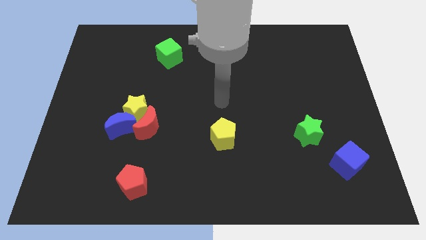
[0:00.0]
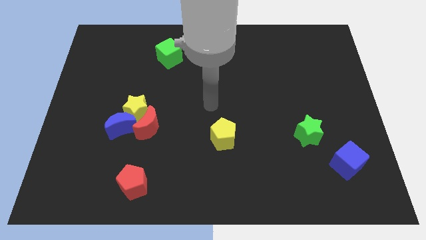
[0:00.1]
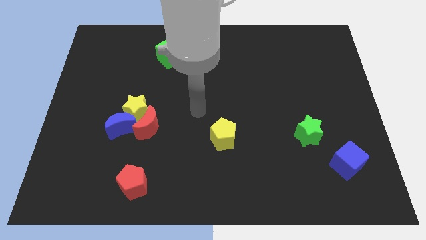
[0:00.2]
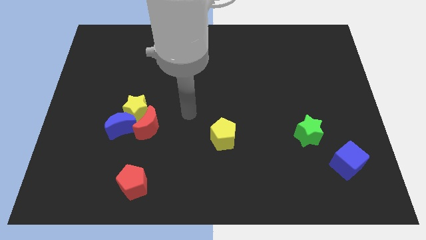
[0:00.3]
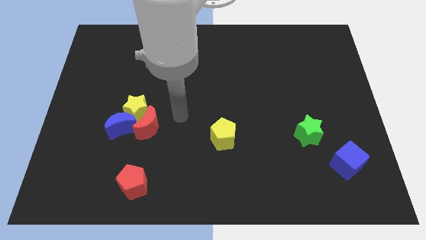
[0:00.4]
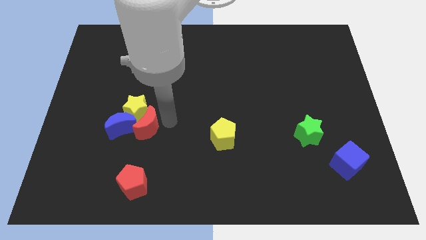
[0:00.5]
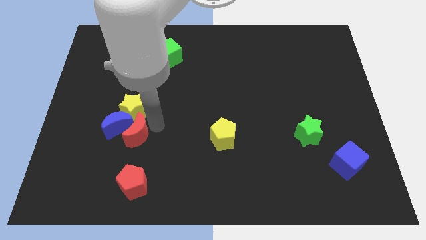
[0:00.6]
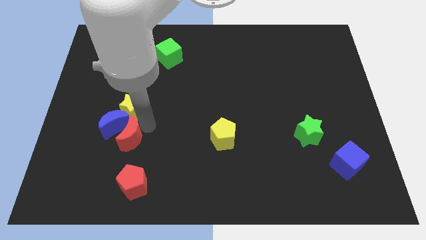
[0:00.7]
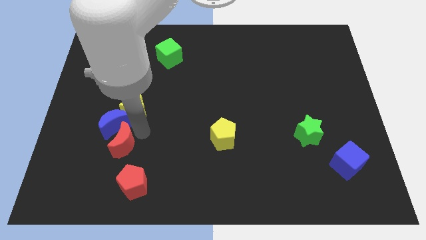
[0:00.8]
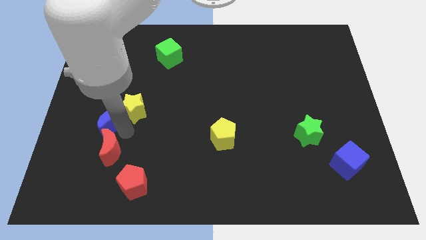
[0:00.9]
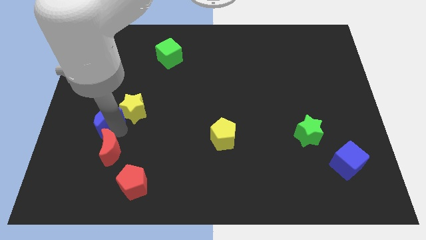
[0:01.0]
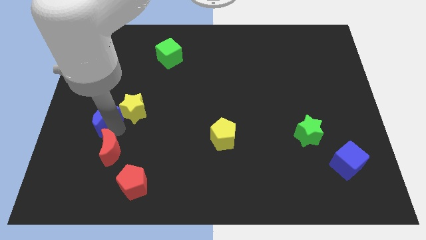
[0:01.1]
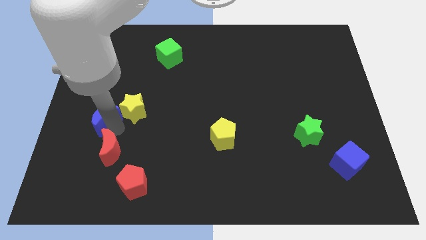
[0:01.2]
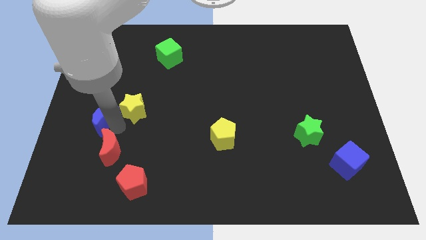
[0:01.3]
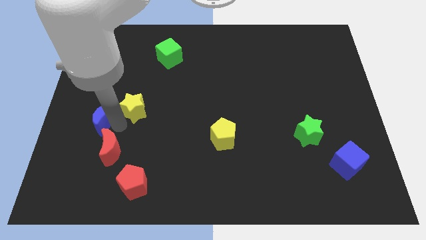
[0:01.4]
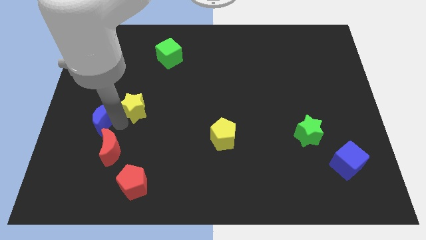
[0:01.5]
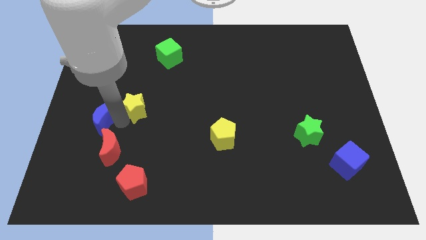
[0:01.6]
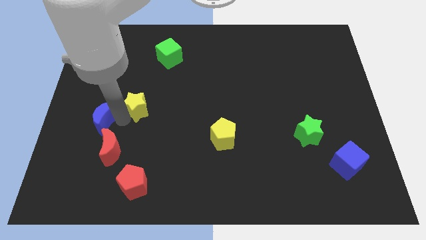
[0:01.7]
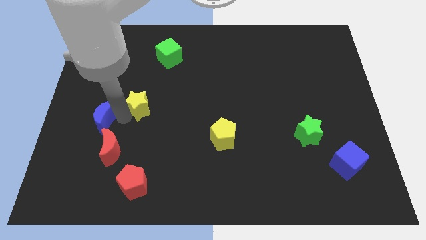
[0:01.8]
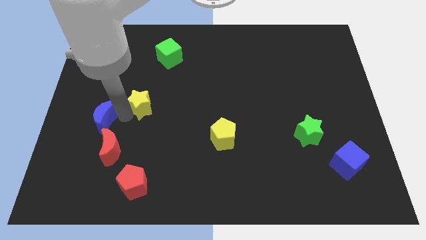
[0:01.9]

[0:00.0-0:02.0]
move the yellow star away from the red moon and blue moon

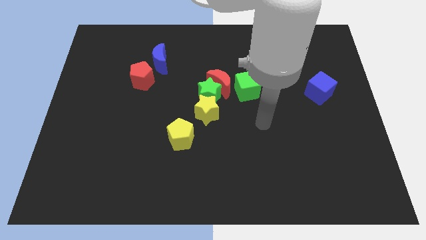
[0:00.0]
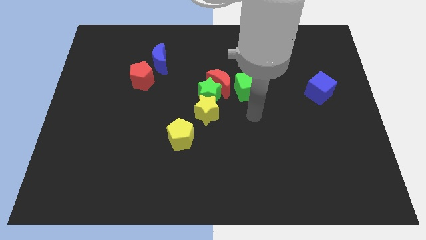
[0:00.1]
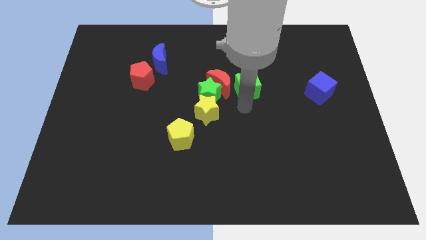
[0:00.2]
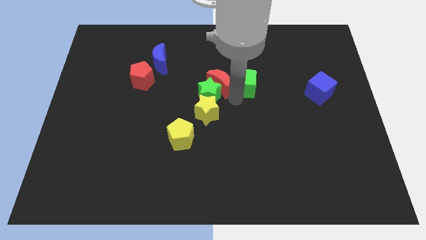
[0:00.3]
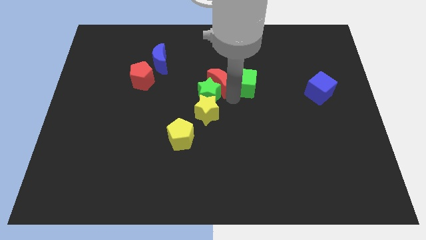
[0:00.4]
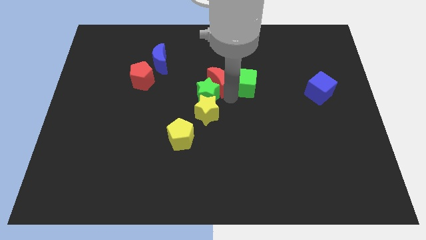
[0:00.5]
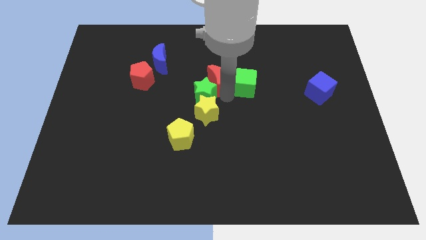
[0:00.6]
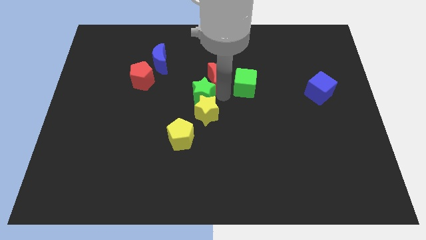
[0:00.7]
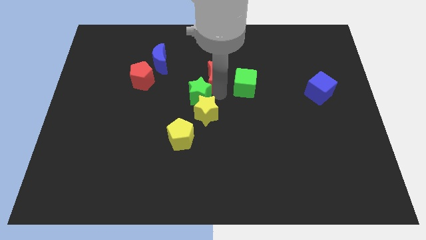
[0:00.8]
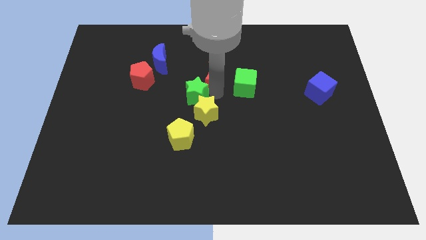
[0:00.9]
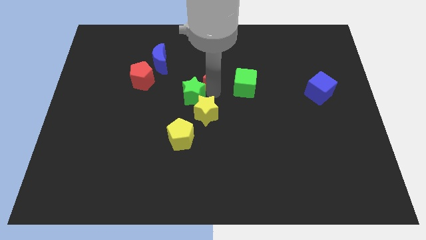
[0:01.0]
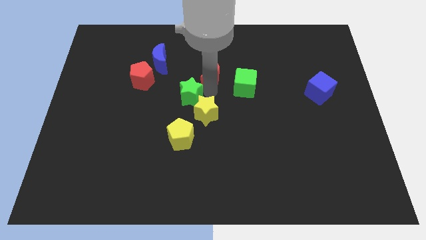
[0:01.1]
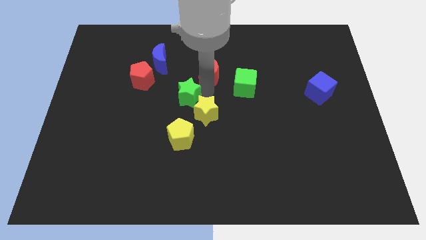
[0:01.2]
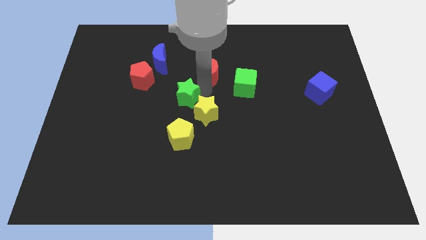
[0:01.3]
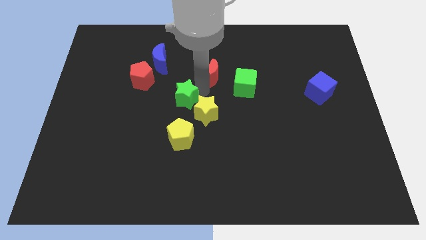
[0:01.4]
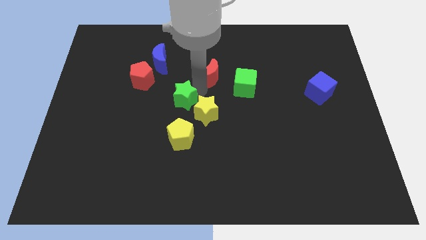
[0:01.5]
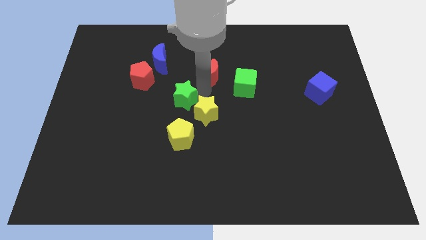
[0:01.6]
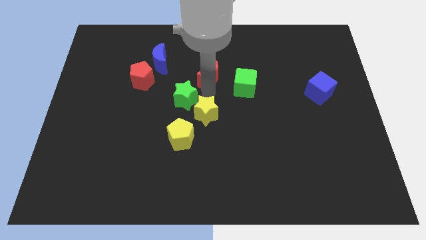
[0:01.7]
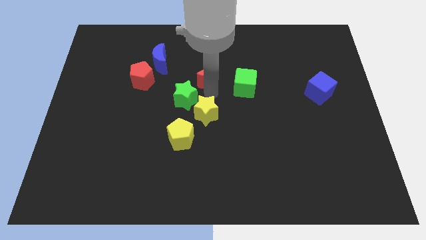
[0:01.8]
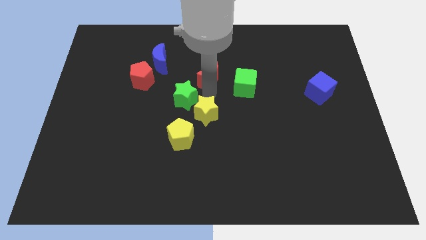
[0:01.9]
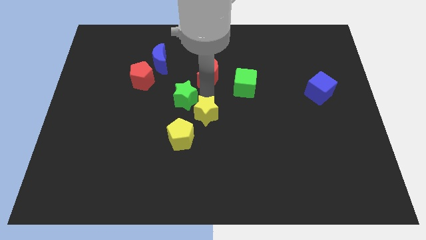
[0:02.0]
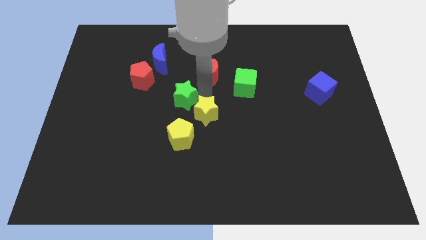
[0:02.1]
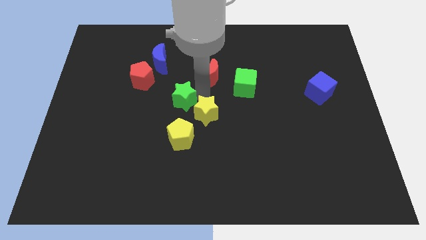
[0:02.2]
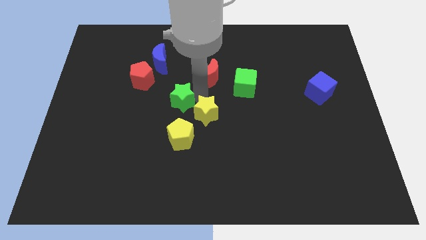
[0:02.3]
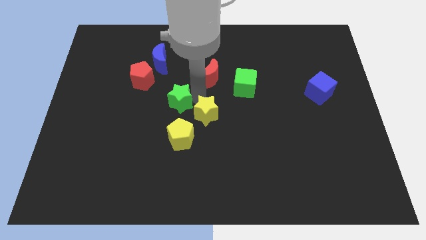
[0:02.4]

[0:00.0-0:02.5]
separate the green star from the clump

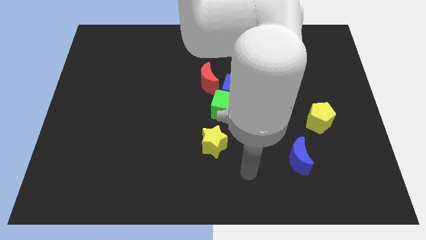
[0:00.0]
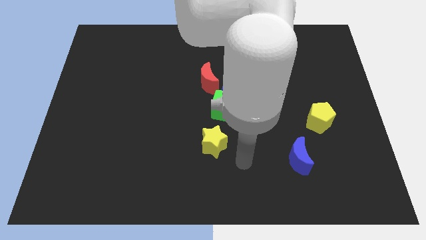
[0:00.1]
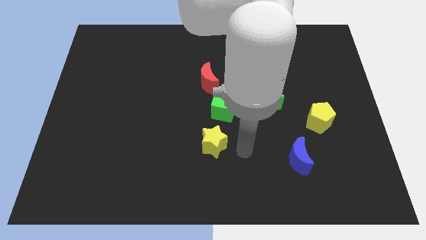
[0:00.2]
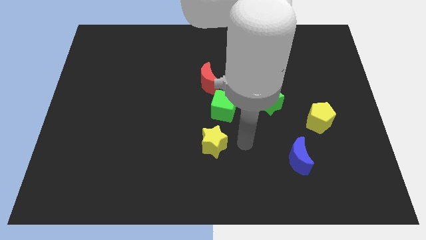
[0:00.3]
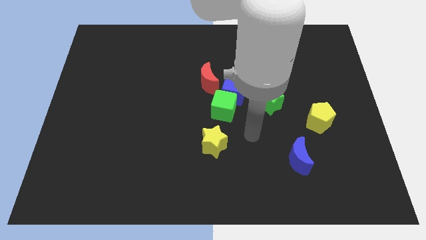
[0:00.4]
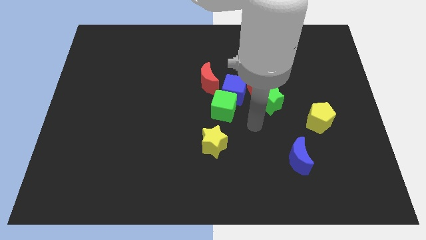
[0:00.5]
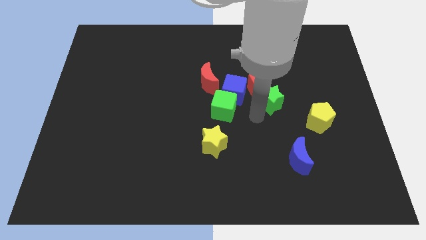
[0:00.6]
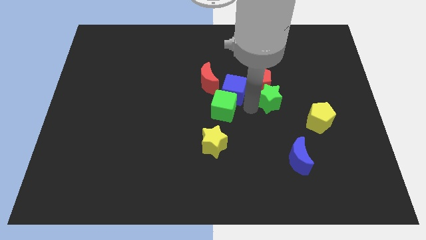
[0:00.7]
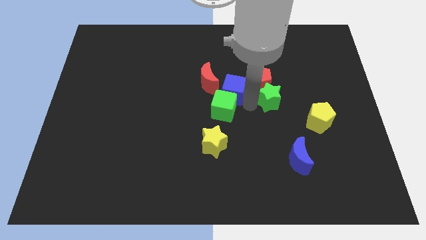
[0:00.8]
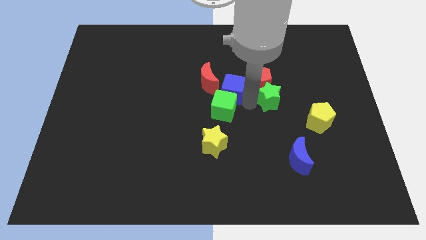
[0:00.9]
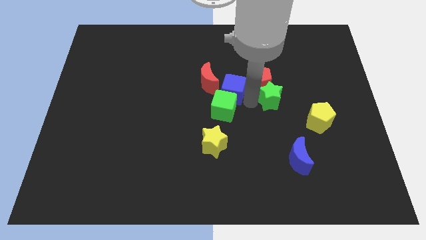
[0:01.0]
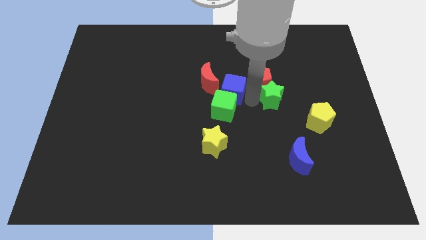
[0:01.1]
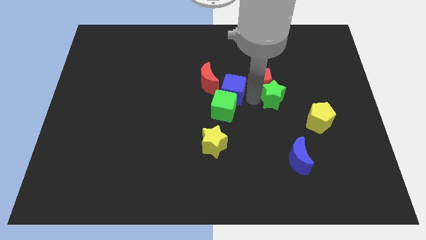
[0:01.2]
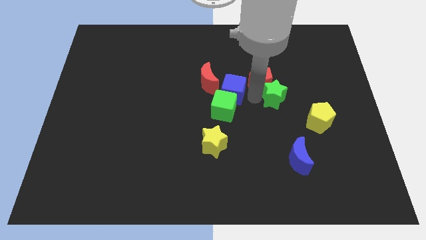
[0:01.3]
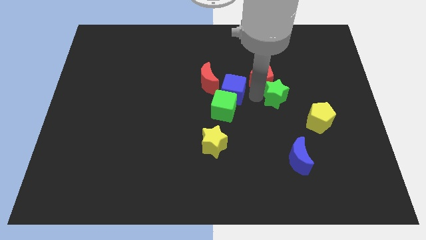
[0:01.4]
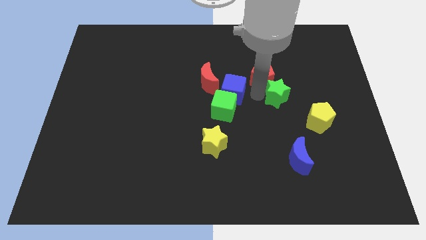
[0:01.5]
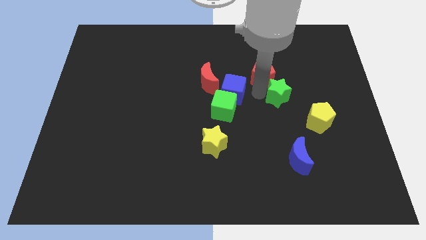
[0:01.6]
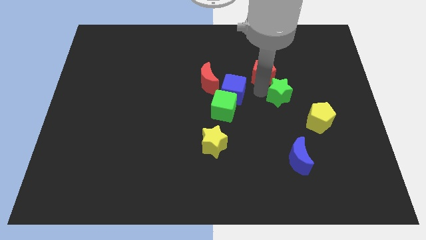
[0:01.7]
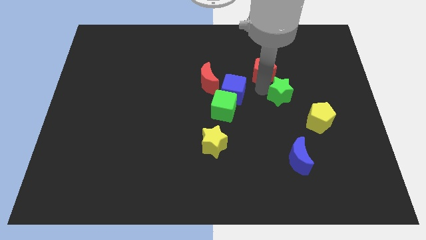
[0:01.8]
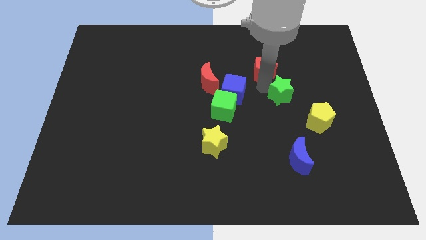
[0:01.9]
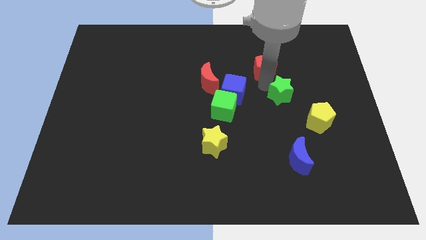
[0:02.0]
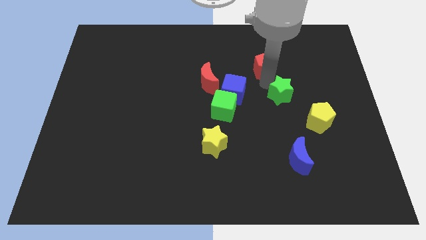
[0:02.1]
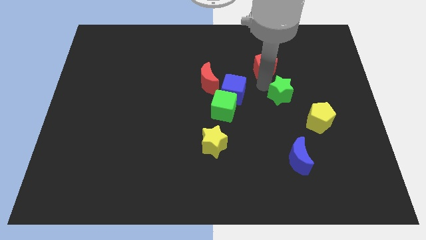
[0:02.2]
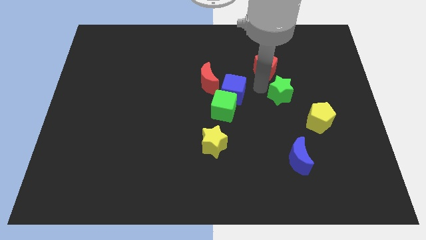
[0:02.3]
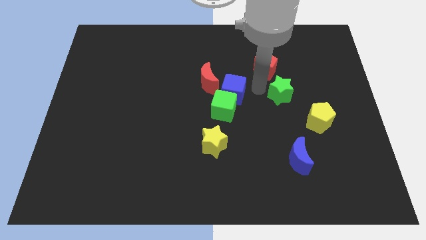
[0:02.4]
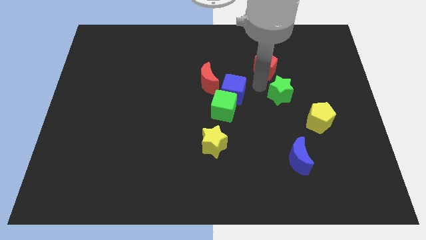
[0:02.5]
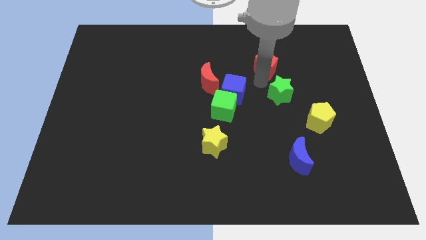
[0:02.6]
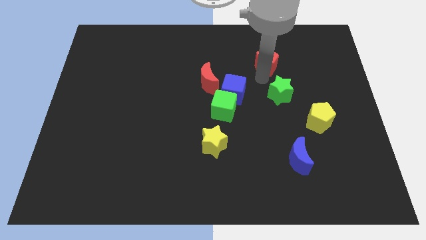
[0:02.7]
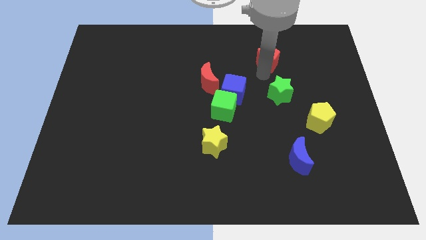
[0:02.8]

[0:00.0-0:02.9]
move the red pentagon away from the green star and blue cube

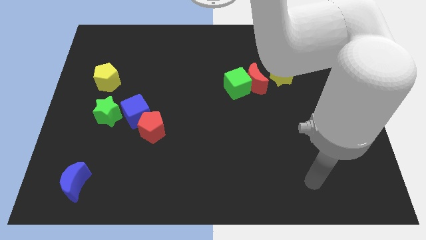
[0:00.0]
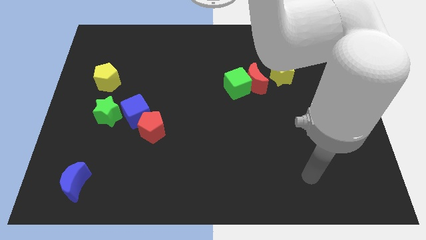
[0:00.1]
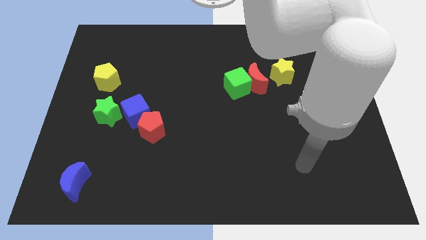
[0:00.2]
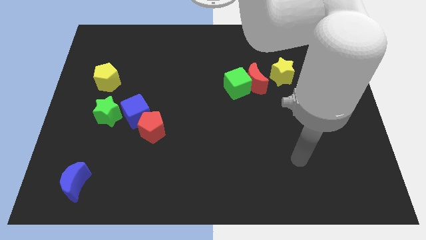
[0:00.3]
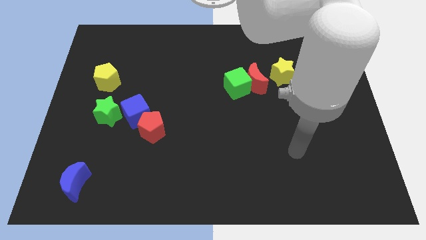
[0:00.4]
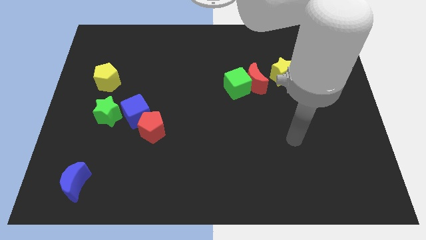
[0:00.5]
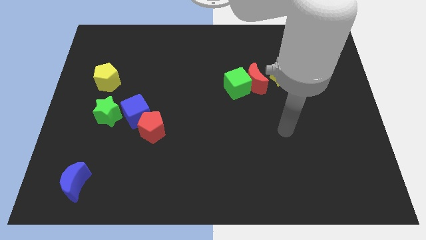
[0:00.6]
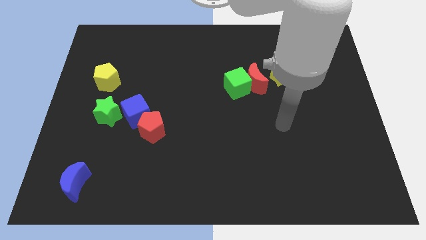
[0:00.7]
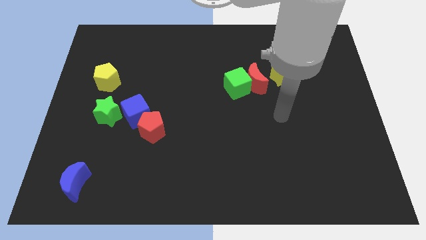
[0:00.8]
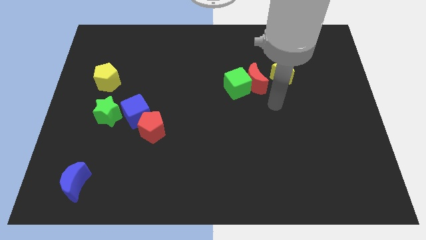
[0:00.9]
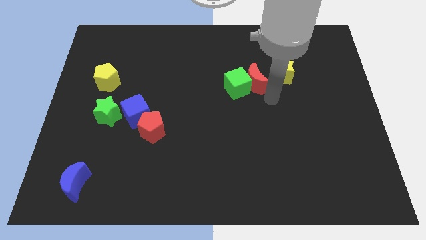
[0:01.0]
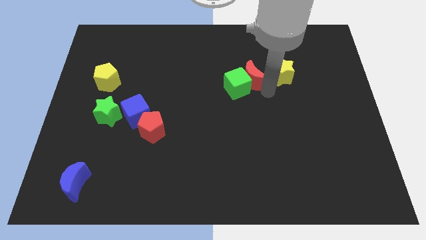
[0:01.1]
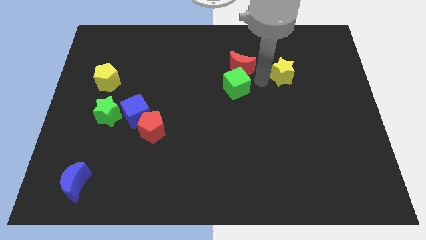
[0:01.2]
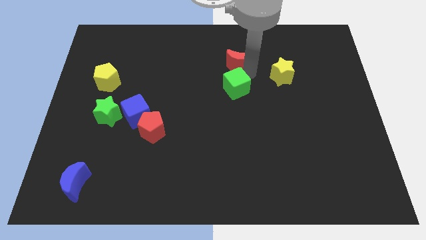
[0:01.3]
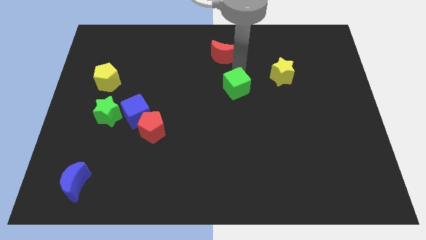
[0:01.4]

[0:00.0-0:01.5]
pull the green cube apart from the red moon

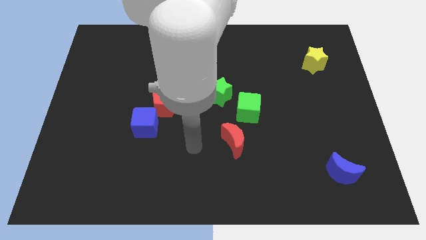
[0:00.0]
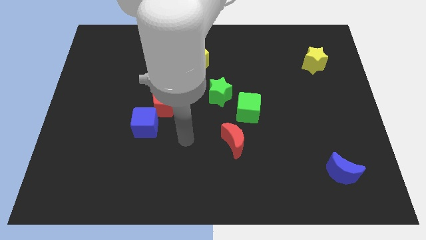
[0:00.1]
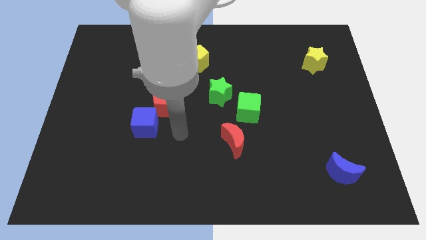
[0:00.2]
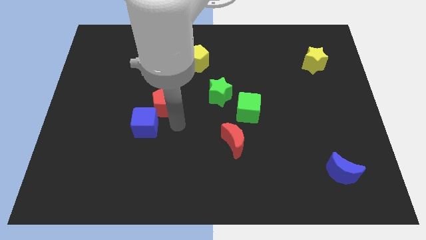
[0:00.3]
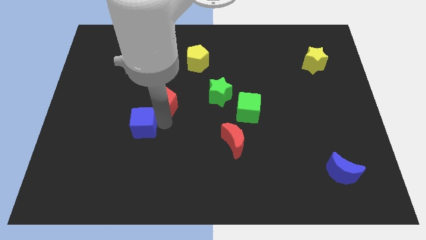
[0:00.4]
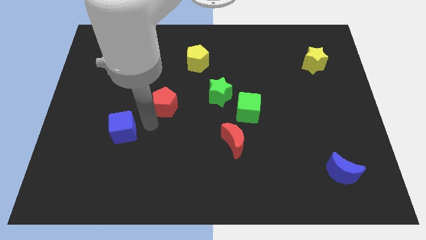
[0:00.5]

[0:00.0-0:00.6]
separate the red pentagon from the blue cube
